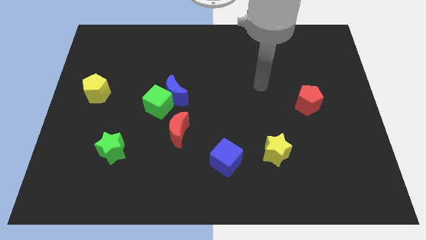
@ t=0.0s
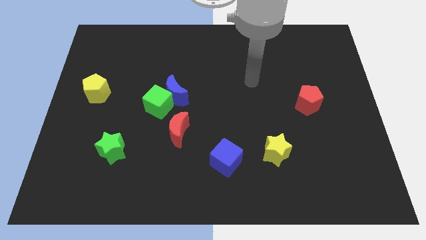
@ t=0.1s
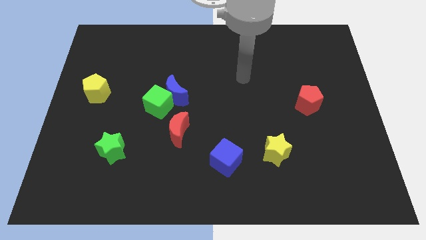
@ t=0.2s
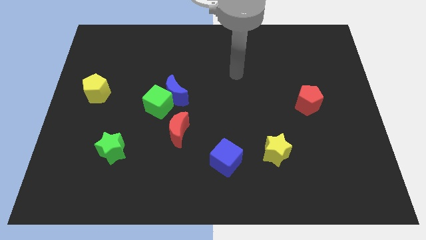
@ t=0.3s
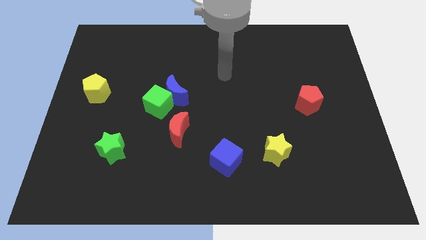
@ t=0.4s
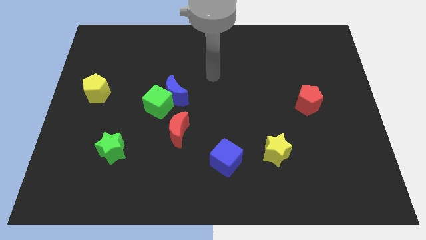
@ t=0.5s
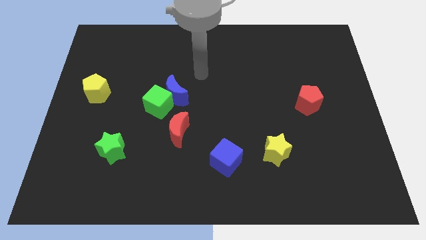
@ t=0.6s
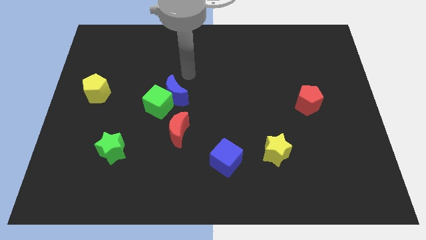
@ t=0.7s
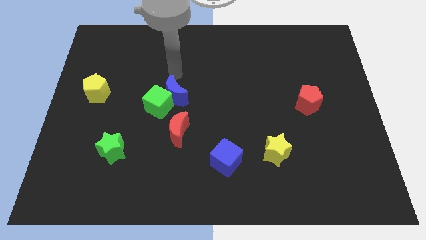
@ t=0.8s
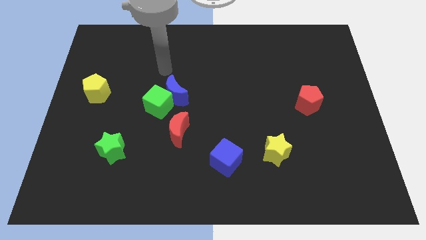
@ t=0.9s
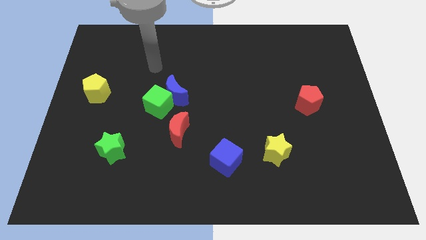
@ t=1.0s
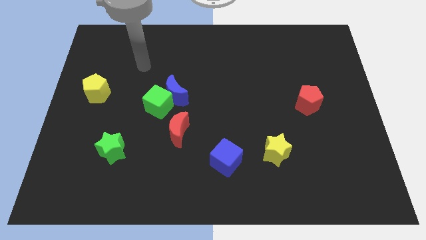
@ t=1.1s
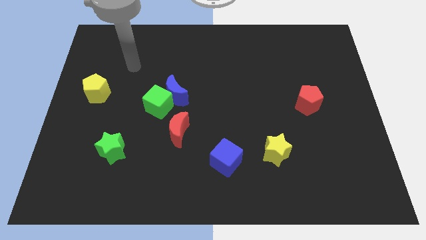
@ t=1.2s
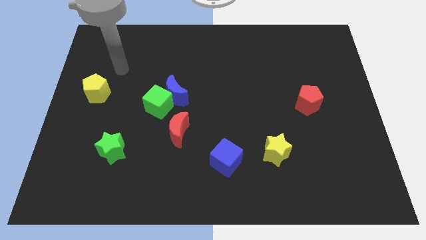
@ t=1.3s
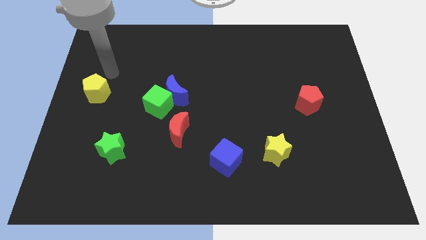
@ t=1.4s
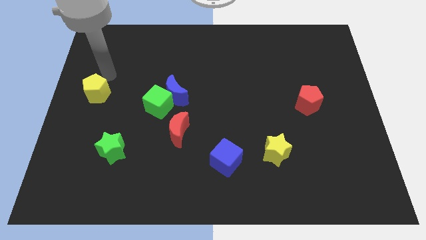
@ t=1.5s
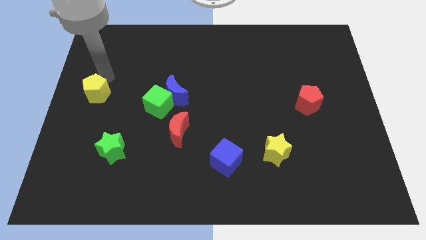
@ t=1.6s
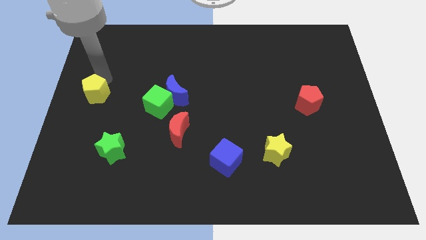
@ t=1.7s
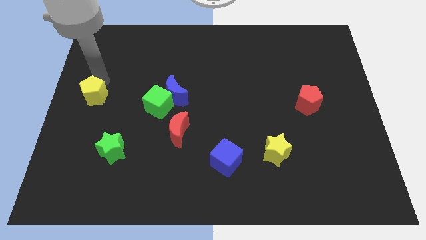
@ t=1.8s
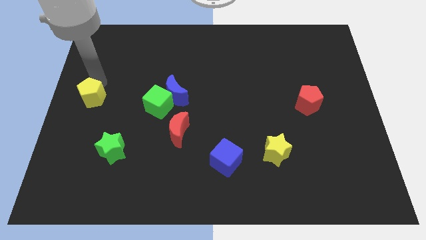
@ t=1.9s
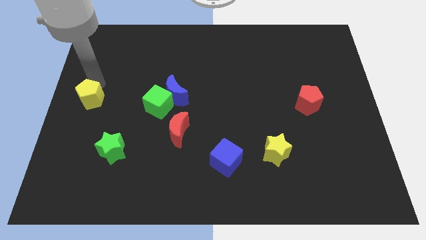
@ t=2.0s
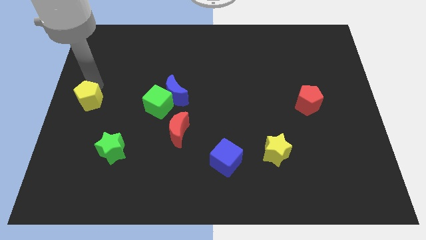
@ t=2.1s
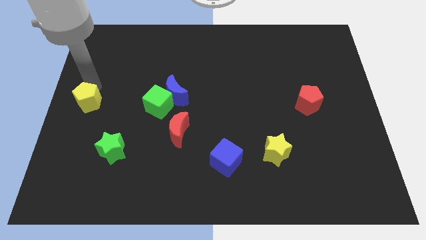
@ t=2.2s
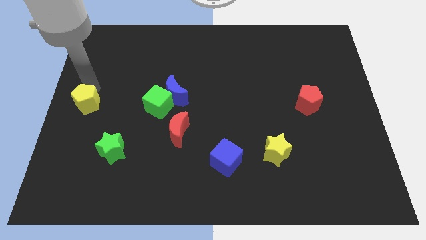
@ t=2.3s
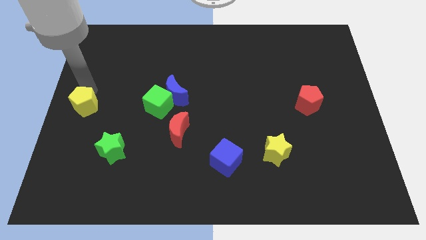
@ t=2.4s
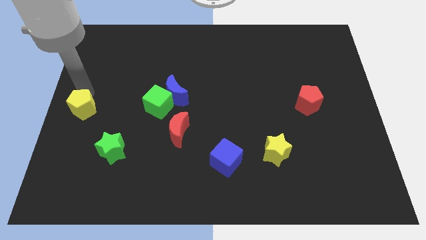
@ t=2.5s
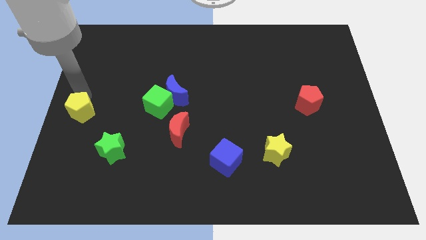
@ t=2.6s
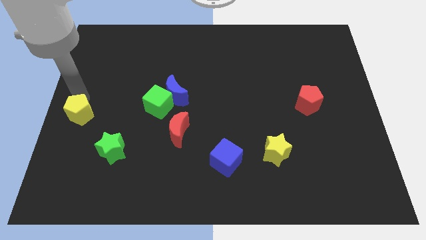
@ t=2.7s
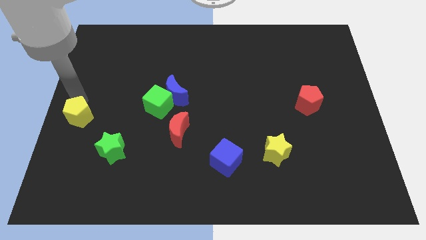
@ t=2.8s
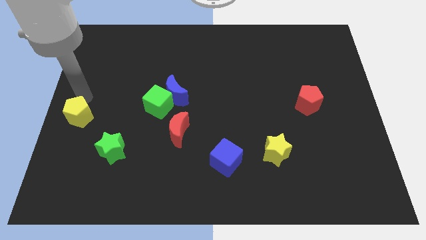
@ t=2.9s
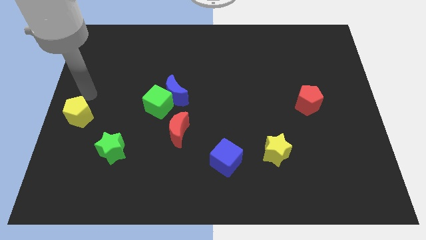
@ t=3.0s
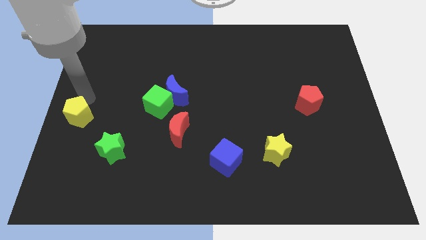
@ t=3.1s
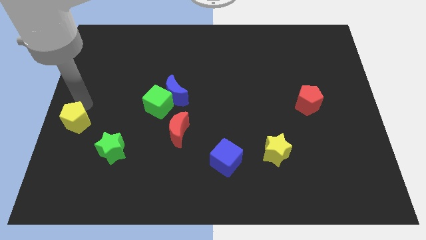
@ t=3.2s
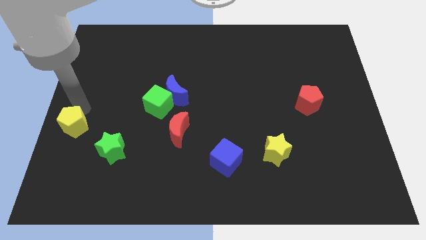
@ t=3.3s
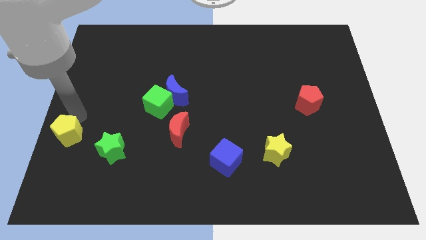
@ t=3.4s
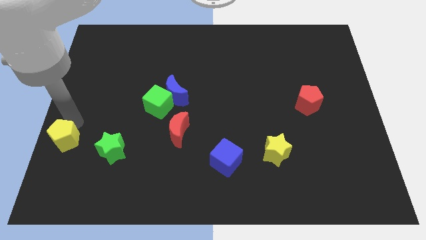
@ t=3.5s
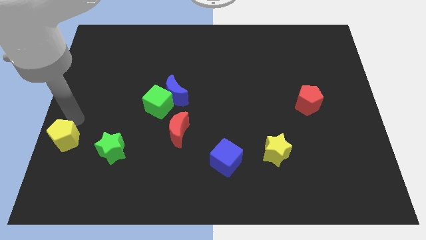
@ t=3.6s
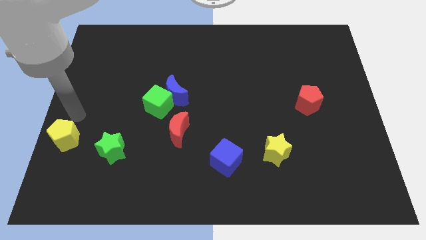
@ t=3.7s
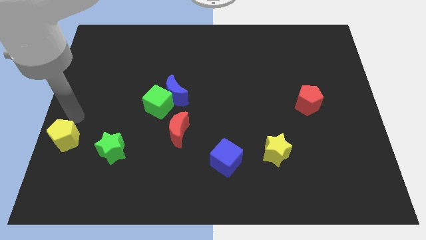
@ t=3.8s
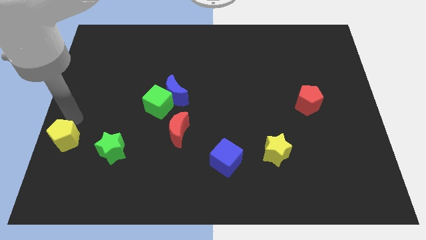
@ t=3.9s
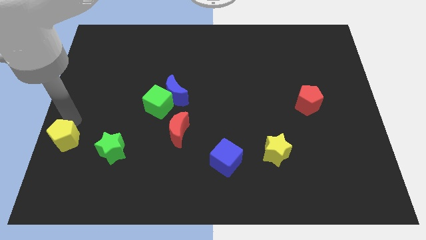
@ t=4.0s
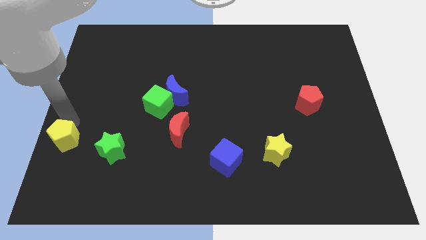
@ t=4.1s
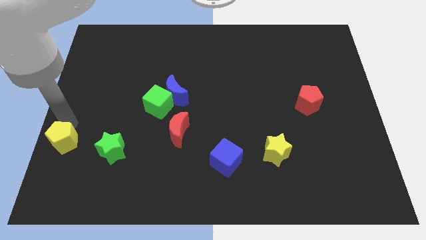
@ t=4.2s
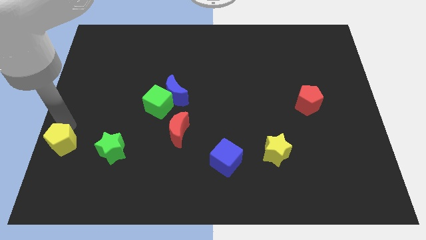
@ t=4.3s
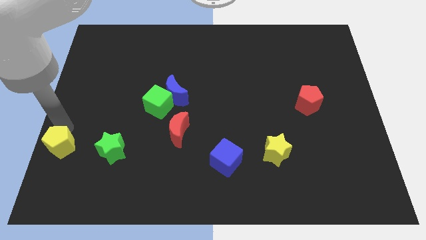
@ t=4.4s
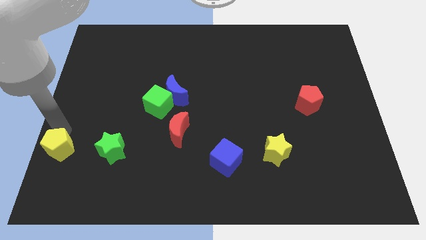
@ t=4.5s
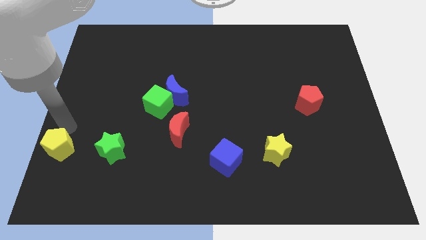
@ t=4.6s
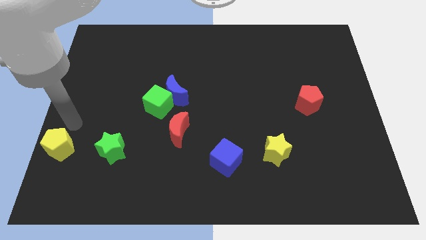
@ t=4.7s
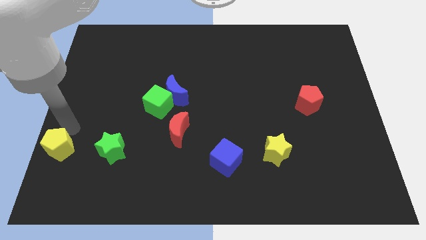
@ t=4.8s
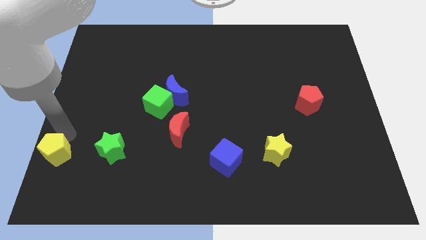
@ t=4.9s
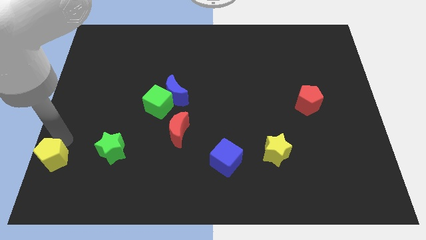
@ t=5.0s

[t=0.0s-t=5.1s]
slide the yellow pentagon to the bottom left corner

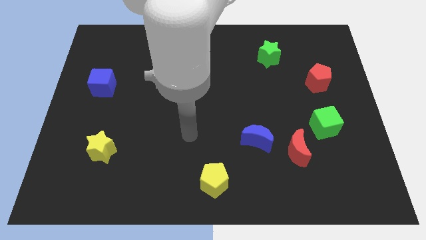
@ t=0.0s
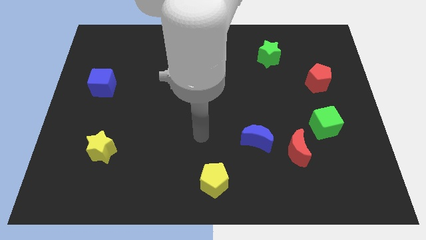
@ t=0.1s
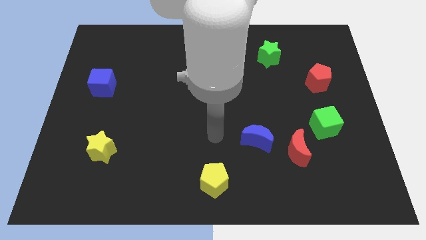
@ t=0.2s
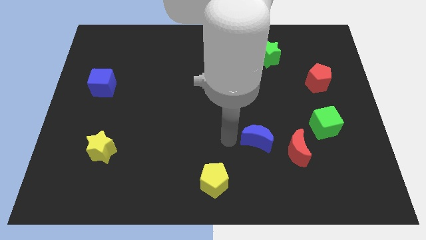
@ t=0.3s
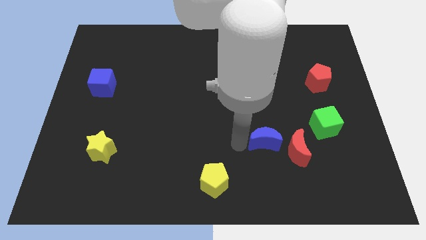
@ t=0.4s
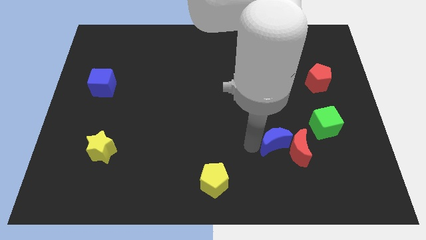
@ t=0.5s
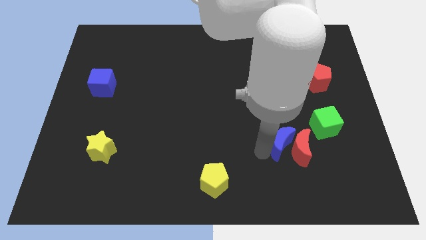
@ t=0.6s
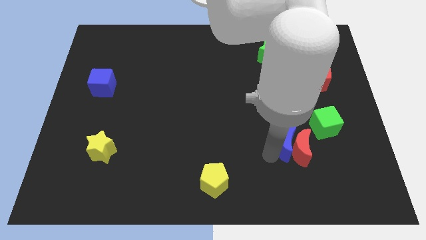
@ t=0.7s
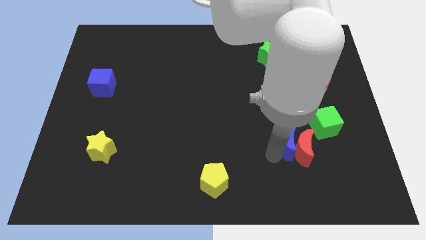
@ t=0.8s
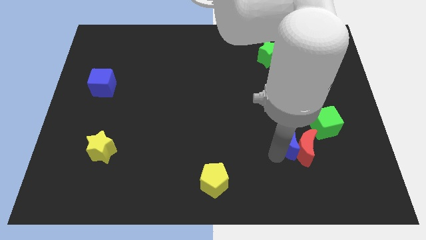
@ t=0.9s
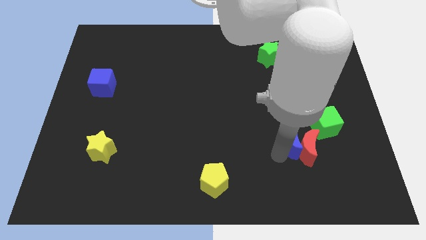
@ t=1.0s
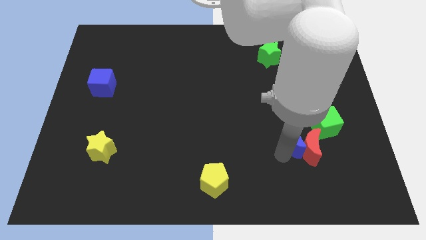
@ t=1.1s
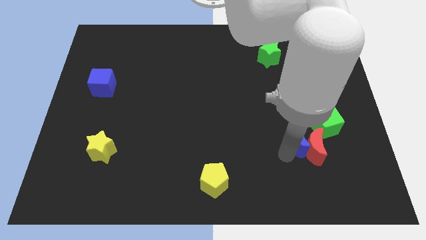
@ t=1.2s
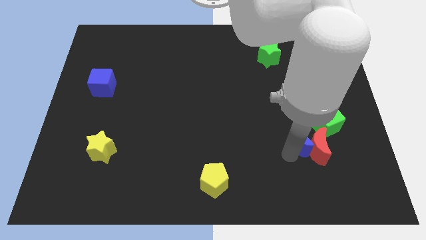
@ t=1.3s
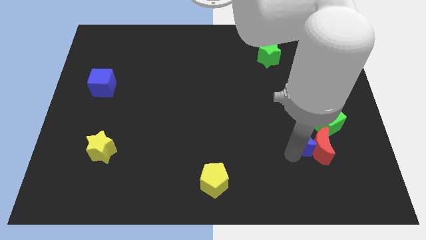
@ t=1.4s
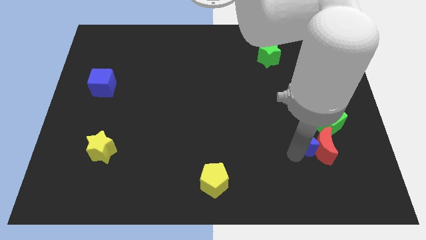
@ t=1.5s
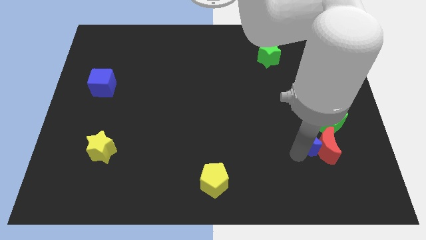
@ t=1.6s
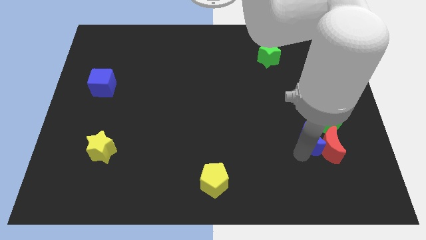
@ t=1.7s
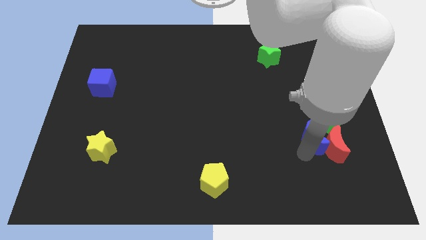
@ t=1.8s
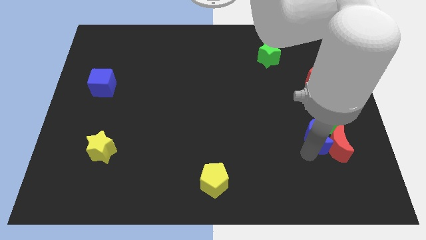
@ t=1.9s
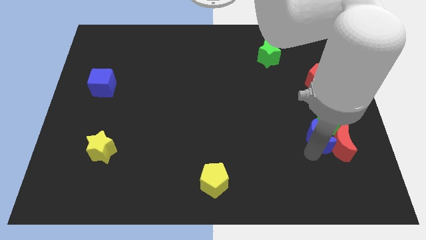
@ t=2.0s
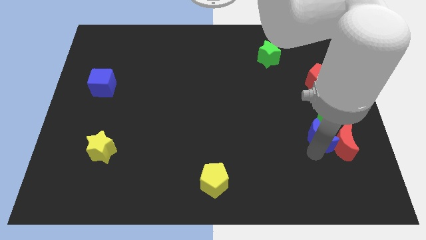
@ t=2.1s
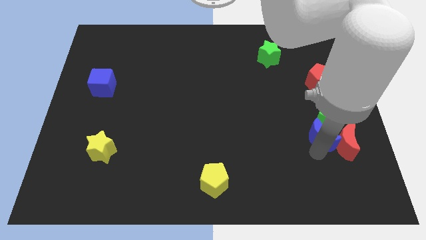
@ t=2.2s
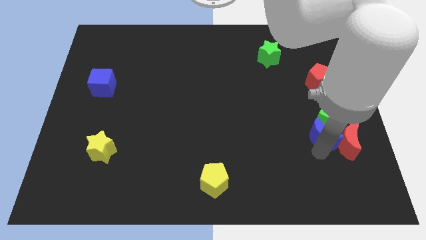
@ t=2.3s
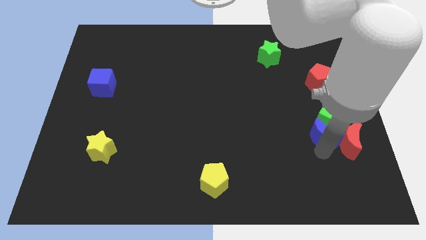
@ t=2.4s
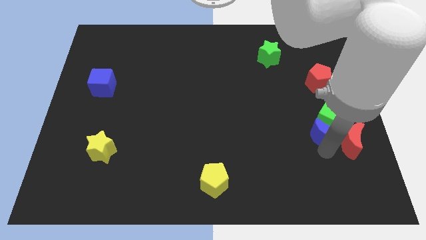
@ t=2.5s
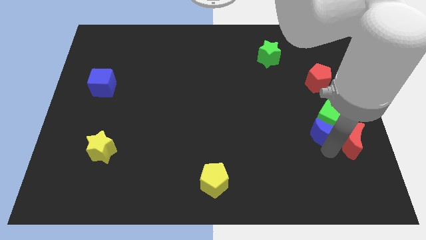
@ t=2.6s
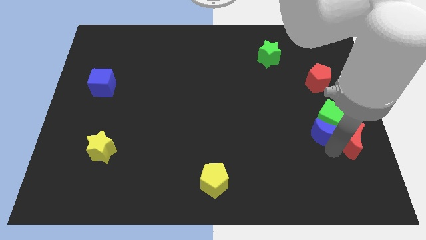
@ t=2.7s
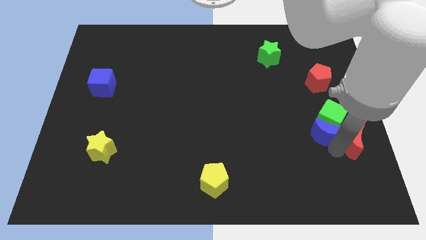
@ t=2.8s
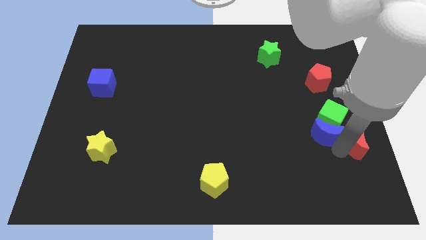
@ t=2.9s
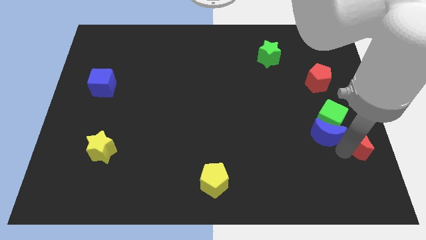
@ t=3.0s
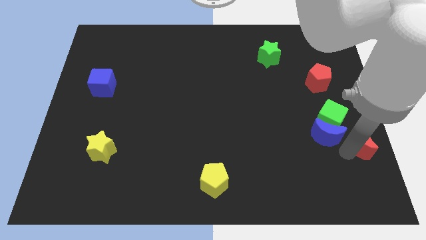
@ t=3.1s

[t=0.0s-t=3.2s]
push the red moon to the center right
